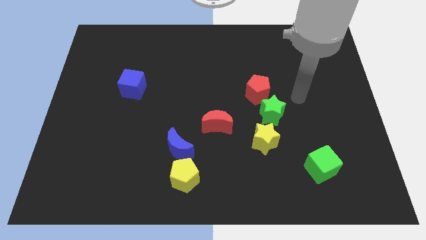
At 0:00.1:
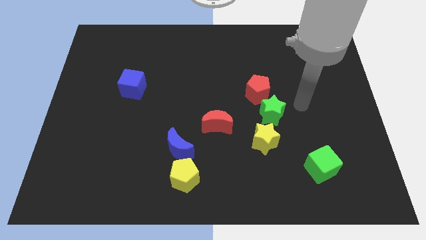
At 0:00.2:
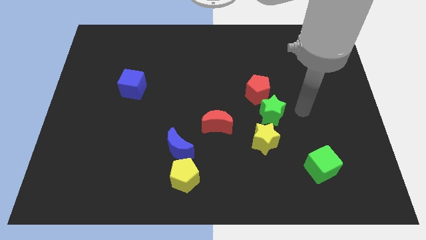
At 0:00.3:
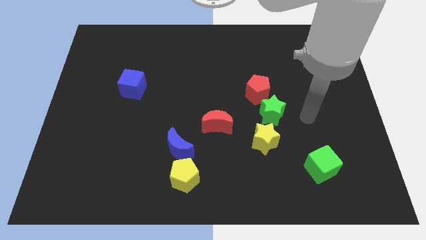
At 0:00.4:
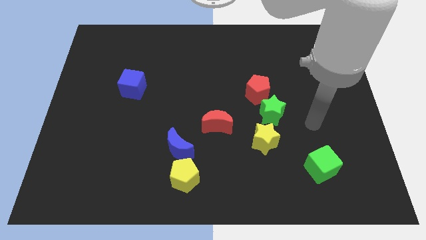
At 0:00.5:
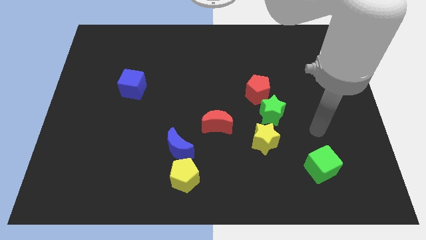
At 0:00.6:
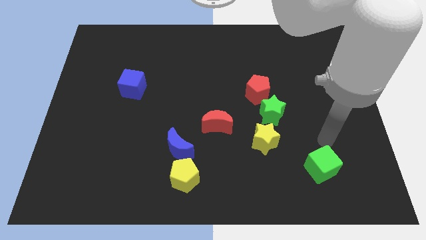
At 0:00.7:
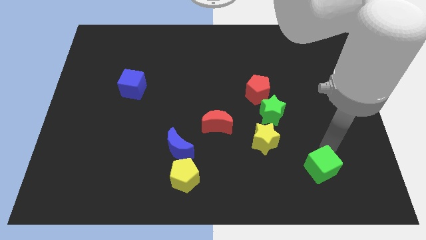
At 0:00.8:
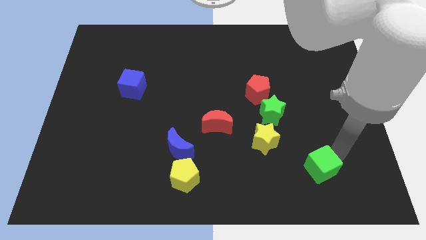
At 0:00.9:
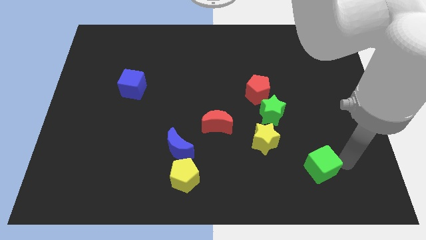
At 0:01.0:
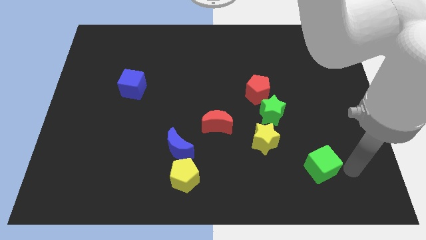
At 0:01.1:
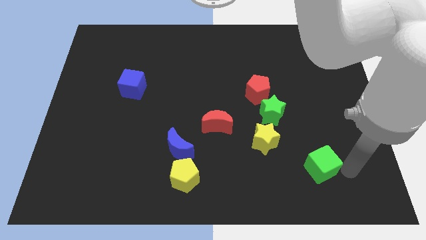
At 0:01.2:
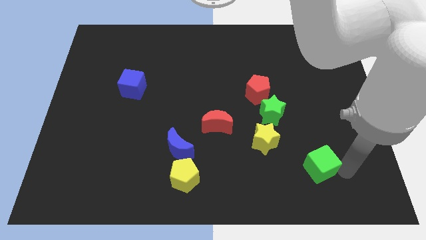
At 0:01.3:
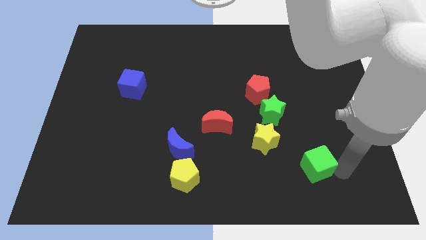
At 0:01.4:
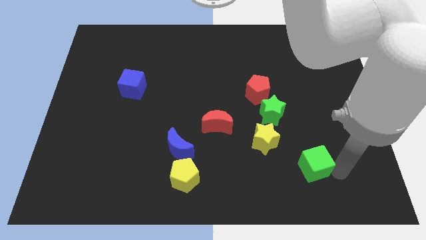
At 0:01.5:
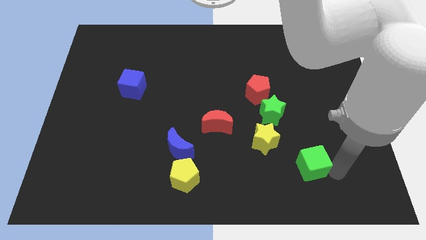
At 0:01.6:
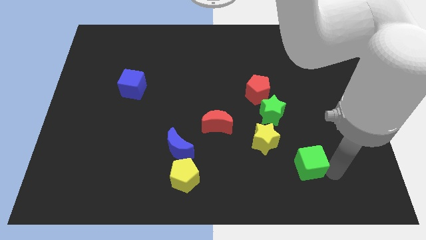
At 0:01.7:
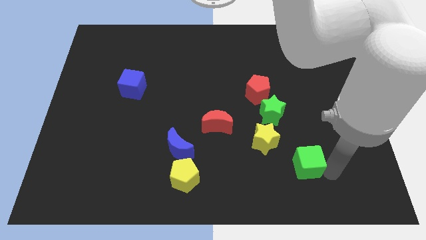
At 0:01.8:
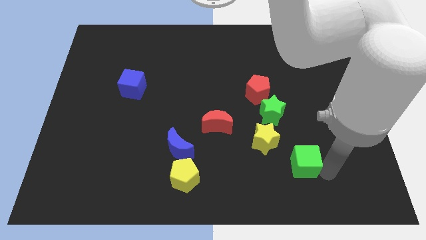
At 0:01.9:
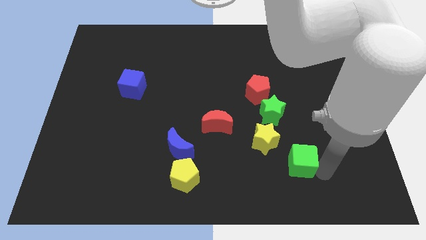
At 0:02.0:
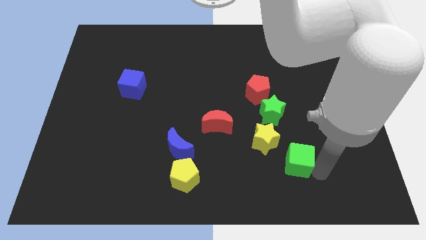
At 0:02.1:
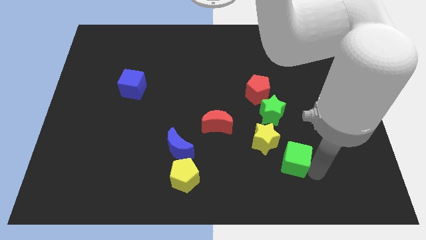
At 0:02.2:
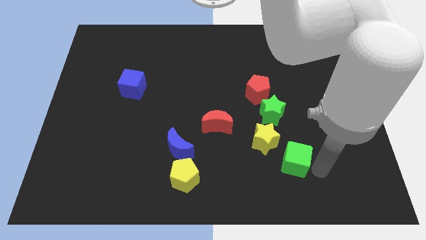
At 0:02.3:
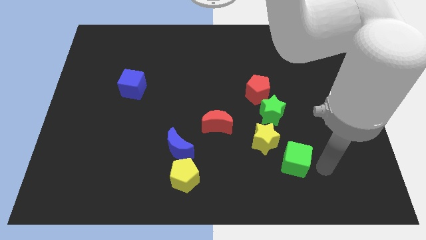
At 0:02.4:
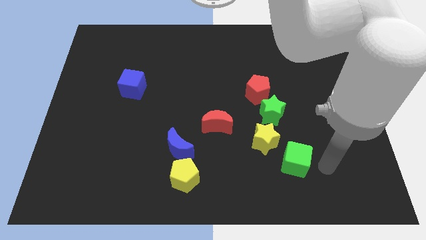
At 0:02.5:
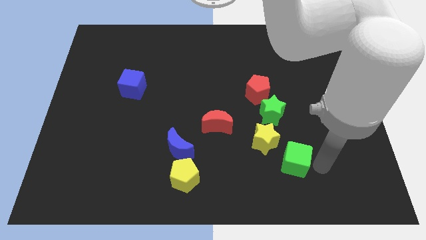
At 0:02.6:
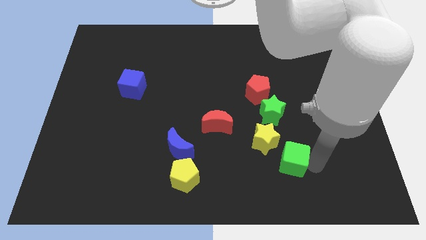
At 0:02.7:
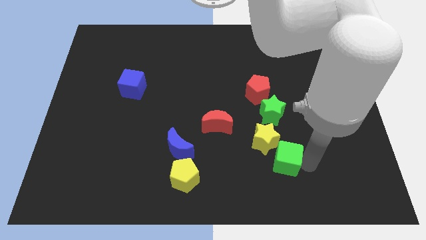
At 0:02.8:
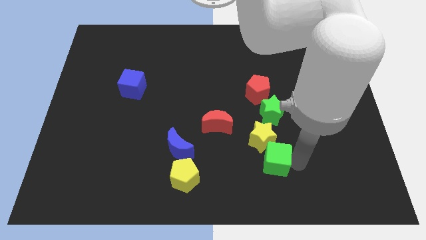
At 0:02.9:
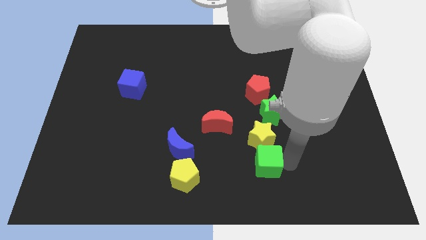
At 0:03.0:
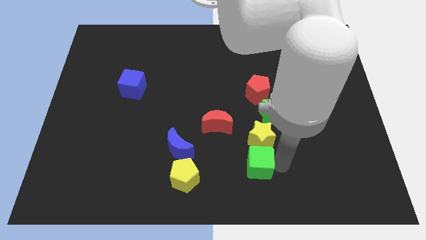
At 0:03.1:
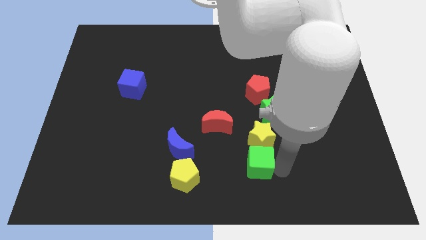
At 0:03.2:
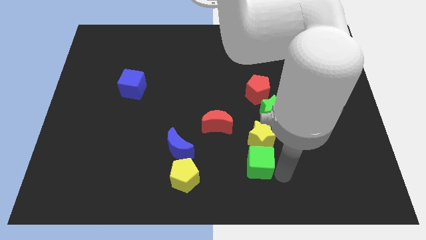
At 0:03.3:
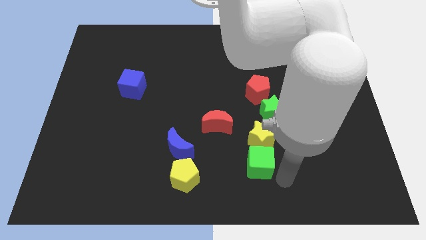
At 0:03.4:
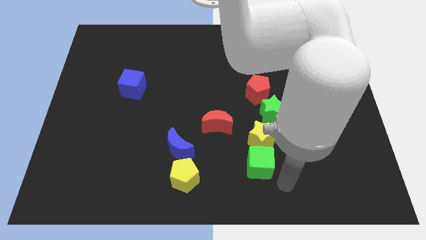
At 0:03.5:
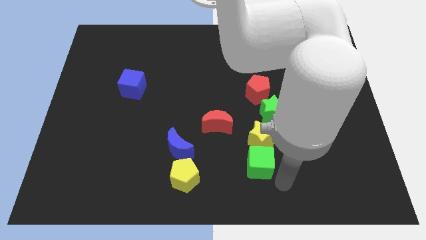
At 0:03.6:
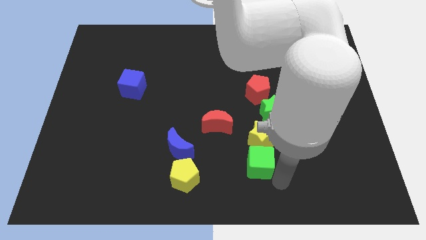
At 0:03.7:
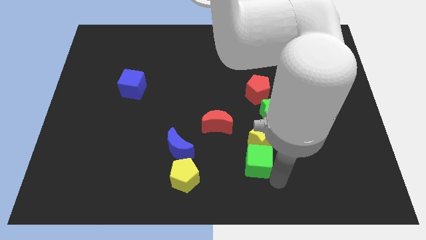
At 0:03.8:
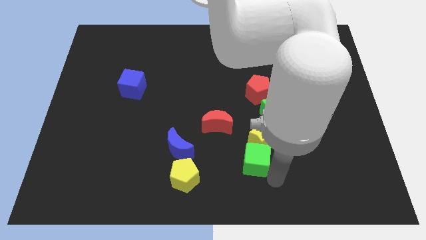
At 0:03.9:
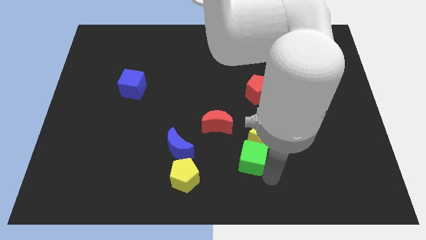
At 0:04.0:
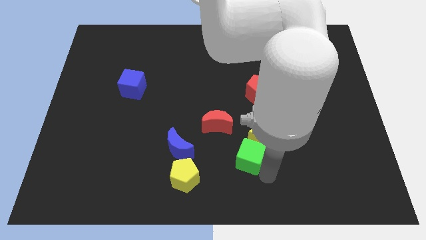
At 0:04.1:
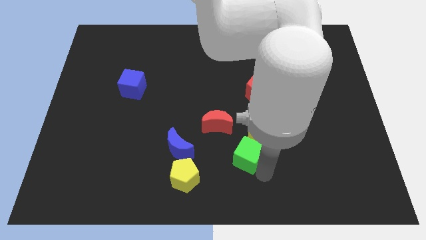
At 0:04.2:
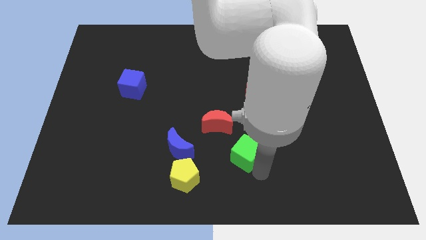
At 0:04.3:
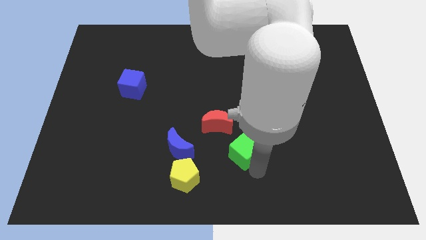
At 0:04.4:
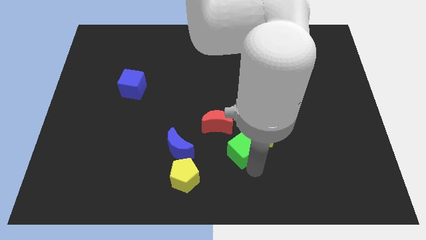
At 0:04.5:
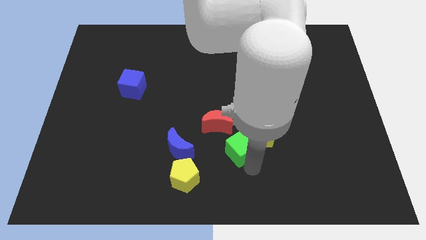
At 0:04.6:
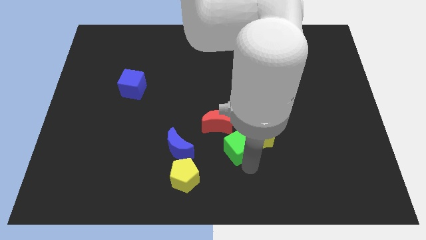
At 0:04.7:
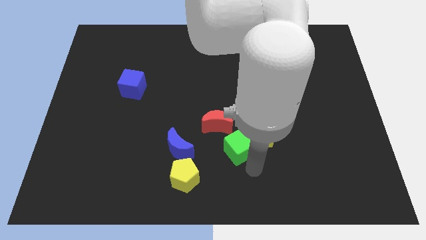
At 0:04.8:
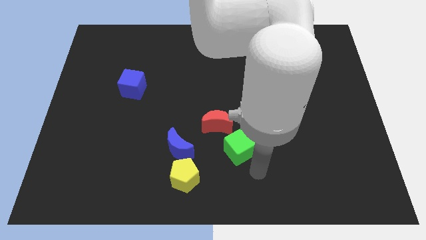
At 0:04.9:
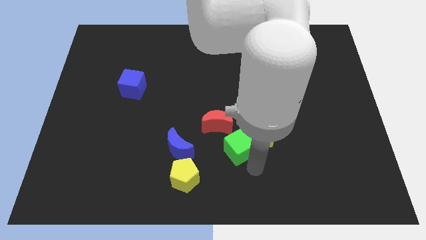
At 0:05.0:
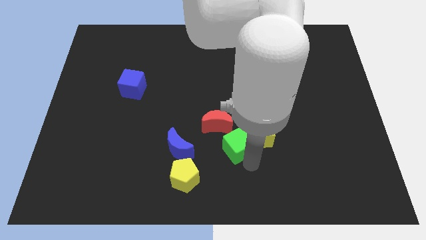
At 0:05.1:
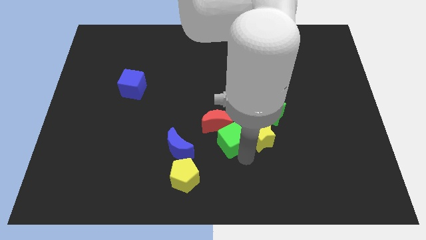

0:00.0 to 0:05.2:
move the green cube close to the red moon

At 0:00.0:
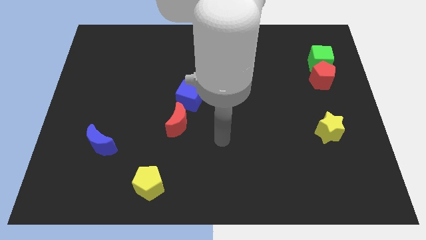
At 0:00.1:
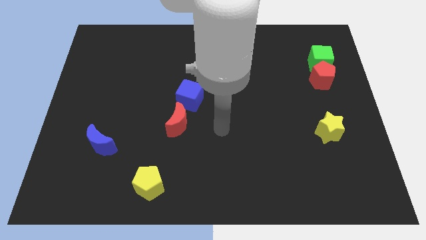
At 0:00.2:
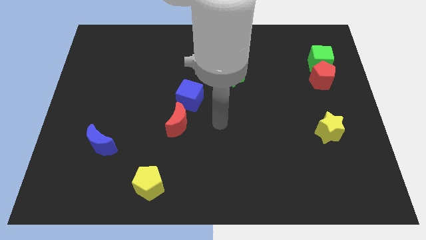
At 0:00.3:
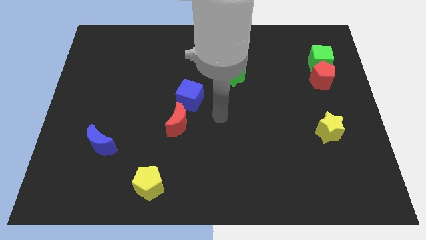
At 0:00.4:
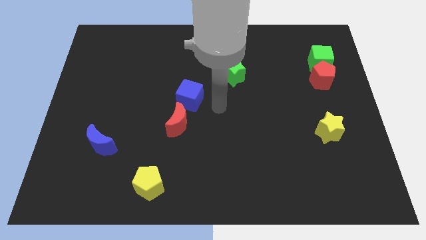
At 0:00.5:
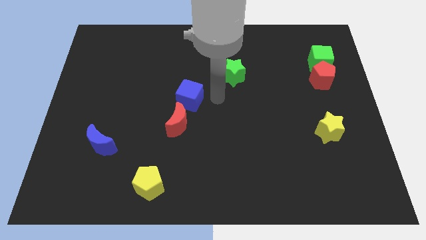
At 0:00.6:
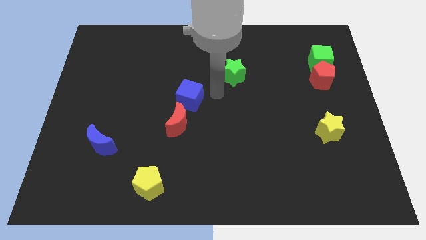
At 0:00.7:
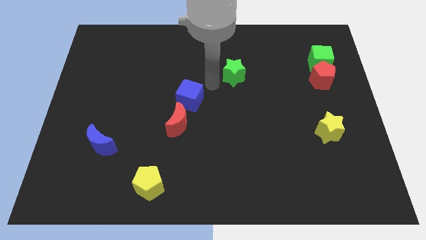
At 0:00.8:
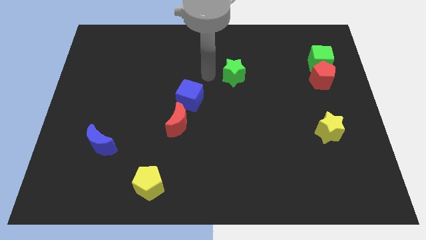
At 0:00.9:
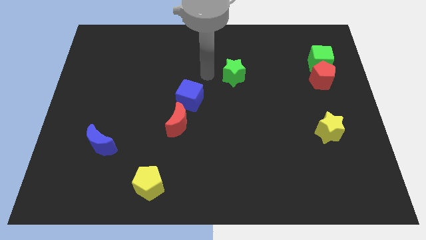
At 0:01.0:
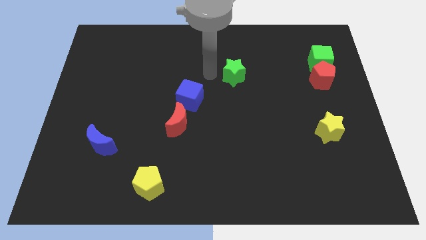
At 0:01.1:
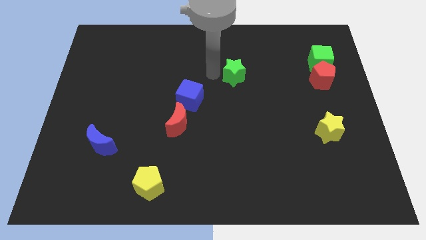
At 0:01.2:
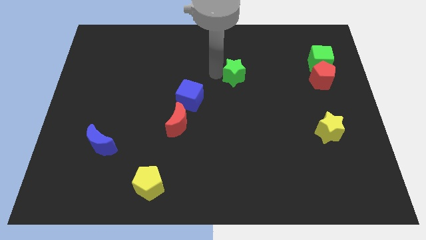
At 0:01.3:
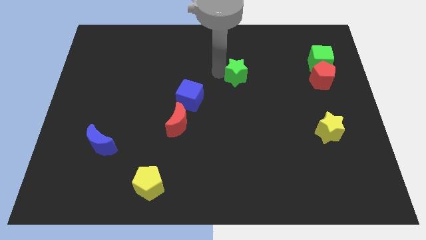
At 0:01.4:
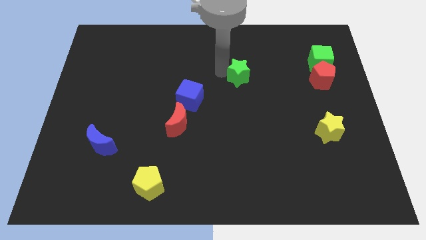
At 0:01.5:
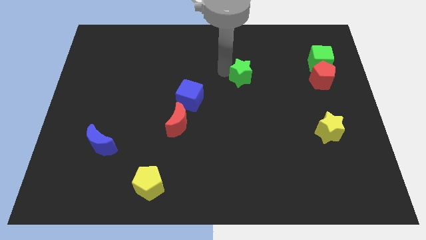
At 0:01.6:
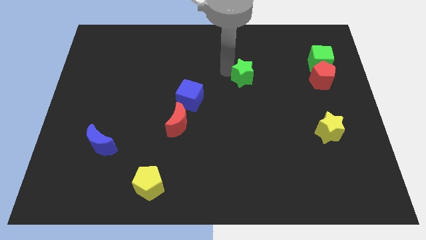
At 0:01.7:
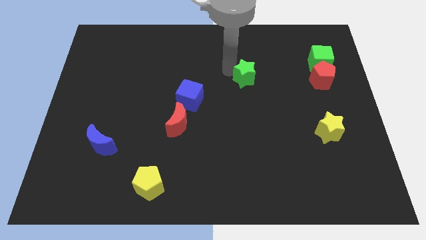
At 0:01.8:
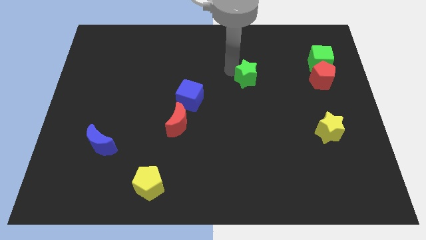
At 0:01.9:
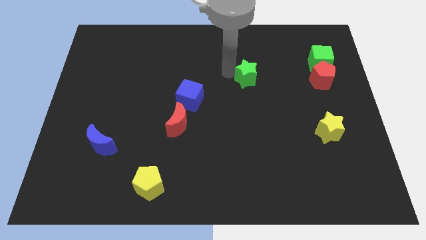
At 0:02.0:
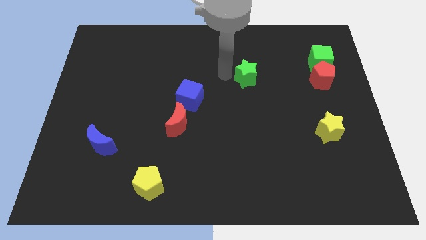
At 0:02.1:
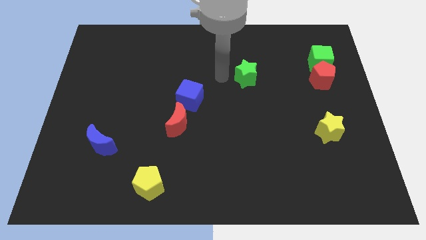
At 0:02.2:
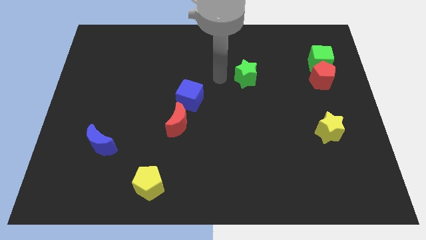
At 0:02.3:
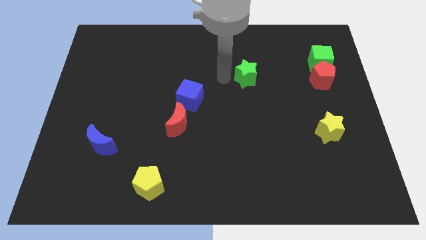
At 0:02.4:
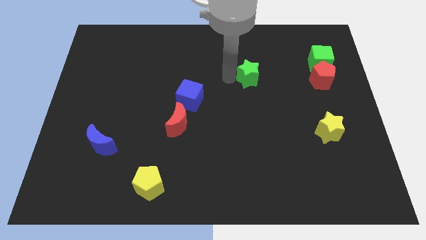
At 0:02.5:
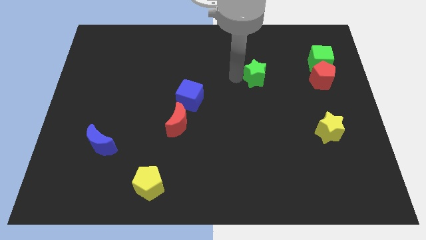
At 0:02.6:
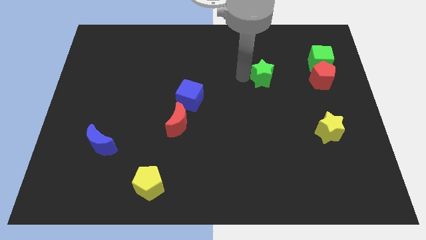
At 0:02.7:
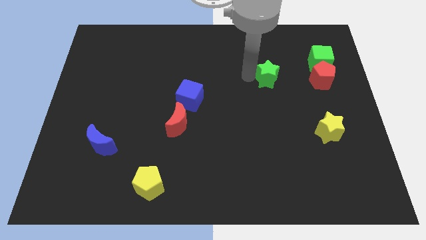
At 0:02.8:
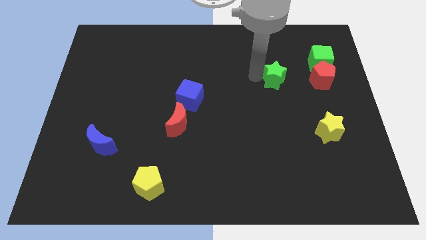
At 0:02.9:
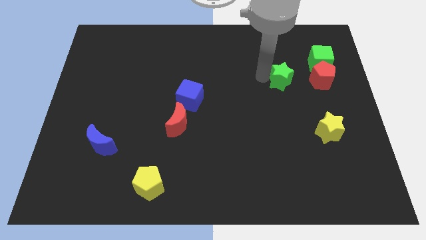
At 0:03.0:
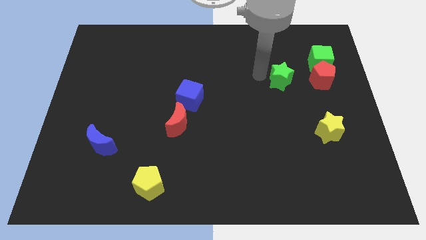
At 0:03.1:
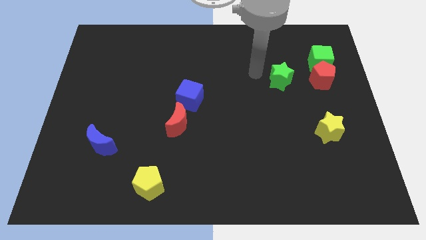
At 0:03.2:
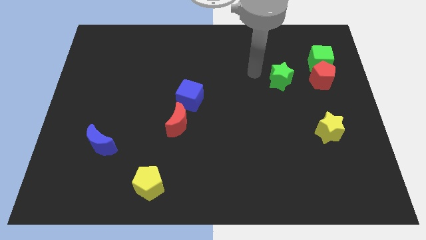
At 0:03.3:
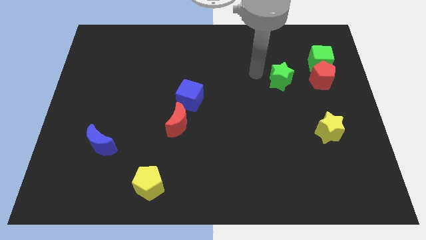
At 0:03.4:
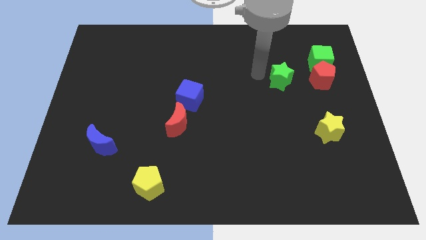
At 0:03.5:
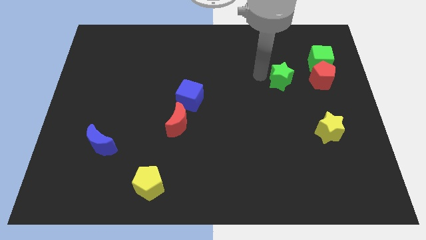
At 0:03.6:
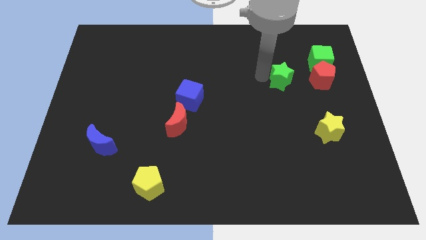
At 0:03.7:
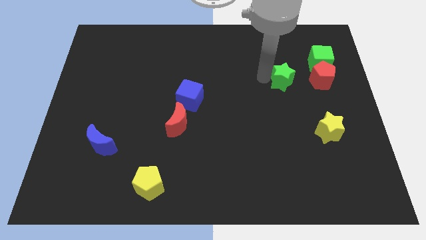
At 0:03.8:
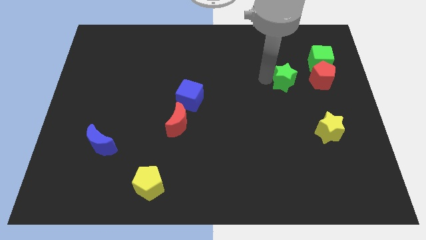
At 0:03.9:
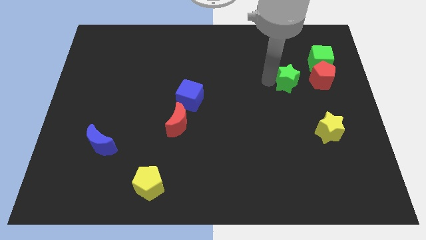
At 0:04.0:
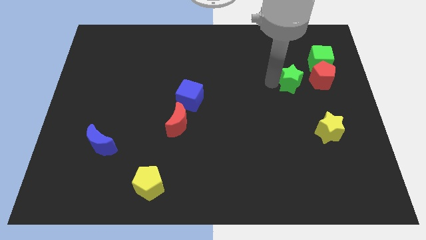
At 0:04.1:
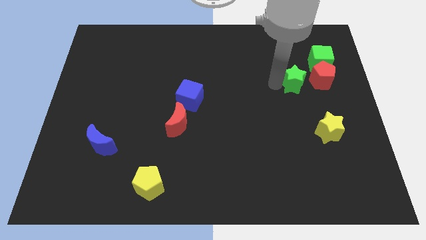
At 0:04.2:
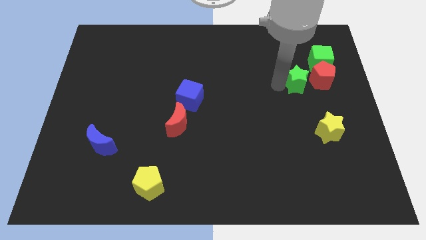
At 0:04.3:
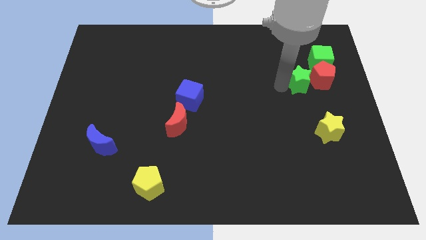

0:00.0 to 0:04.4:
move the green star next to the red pentagon
